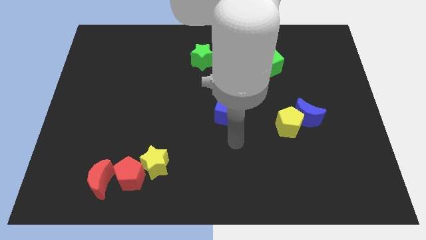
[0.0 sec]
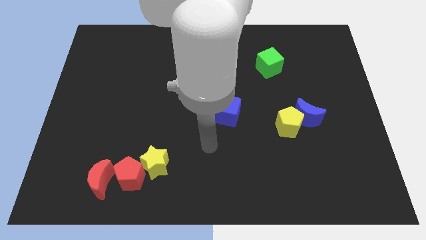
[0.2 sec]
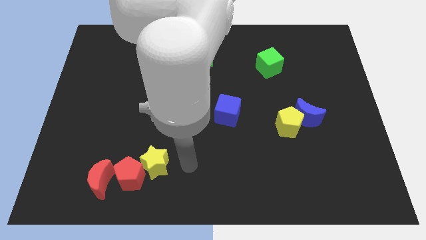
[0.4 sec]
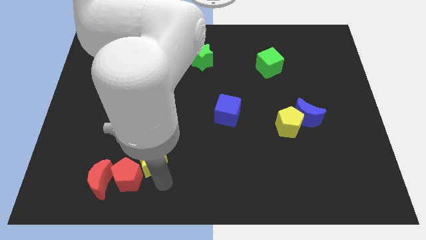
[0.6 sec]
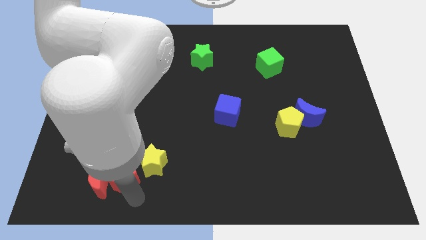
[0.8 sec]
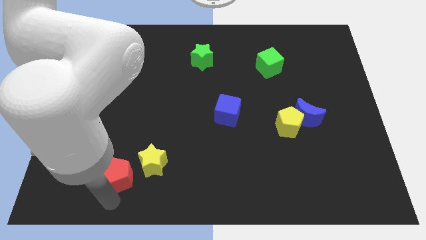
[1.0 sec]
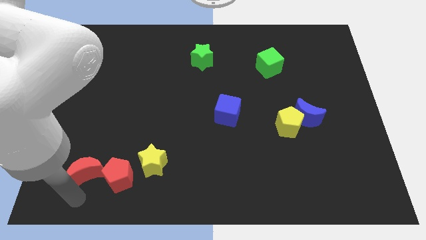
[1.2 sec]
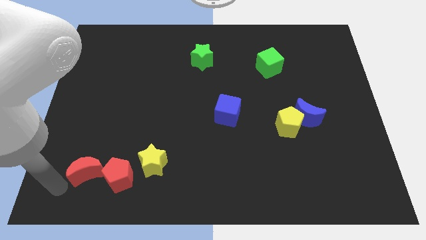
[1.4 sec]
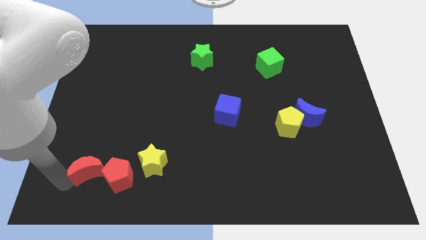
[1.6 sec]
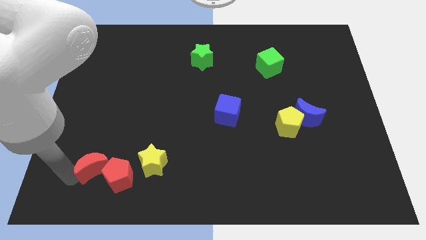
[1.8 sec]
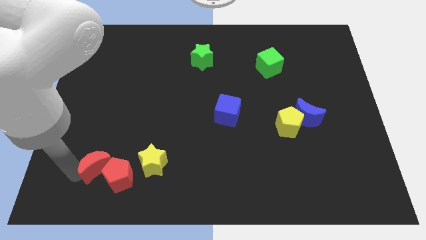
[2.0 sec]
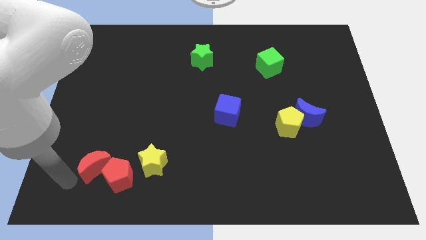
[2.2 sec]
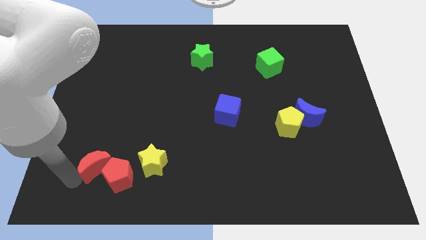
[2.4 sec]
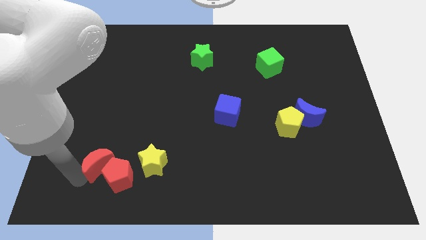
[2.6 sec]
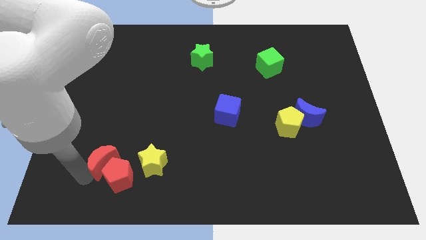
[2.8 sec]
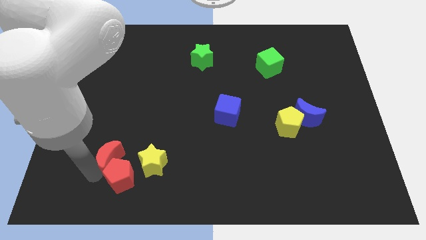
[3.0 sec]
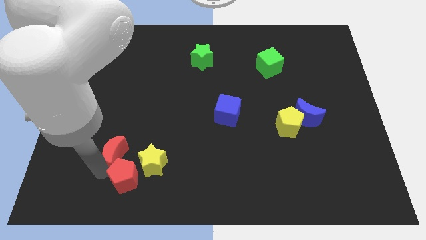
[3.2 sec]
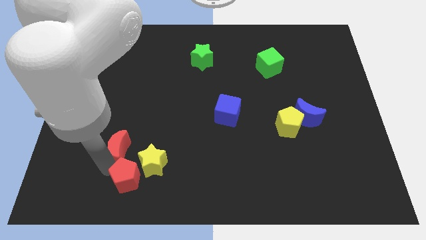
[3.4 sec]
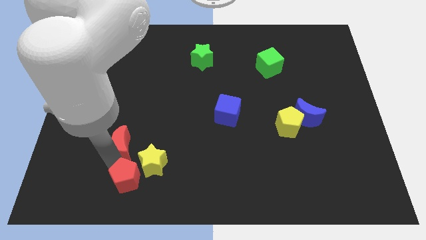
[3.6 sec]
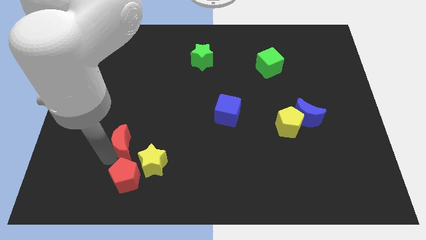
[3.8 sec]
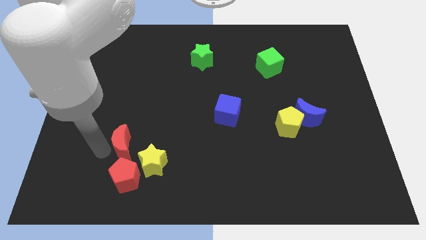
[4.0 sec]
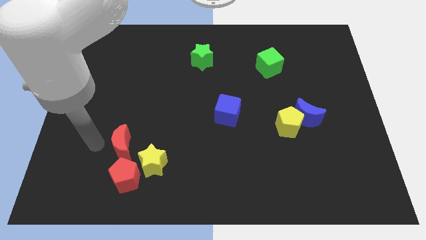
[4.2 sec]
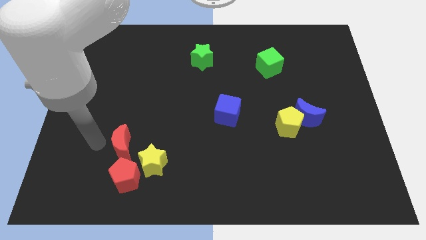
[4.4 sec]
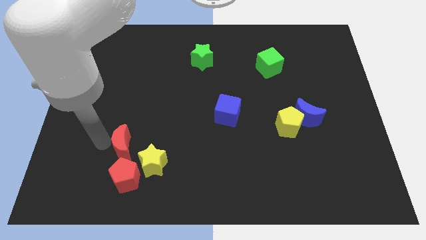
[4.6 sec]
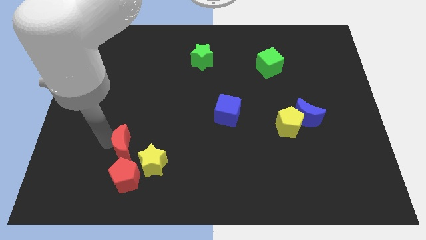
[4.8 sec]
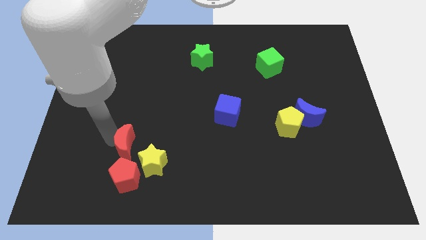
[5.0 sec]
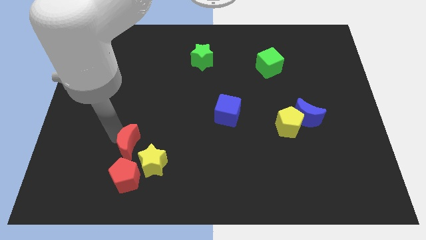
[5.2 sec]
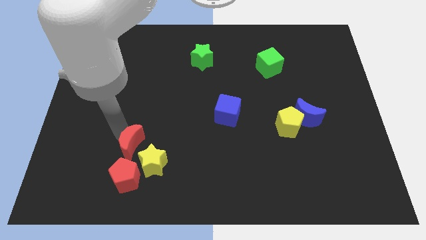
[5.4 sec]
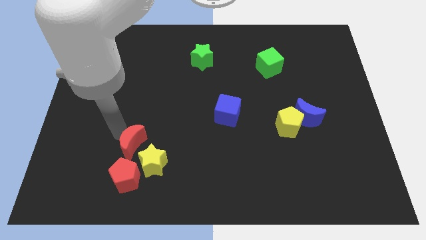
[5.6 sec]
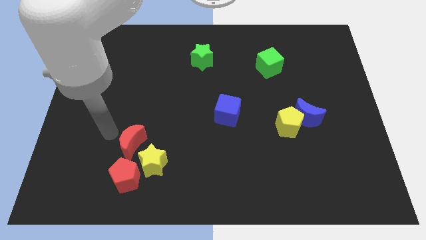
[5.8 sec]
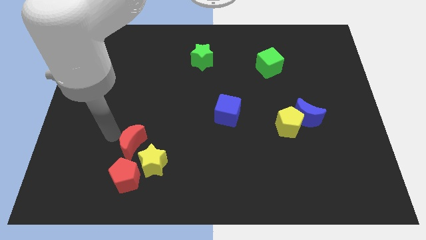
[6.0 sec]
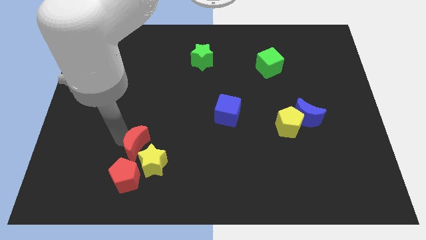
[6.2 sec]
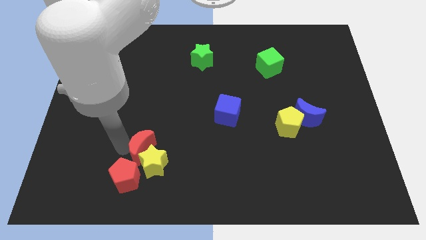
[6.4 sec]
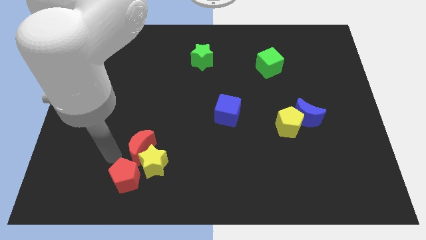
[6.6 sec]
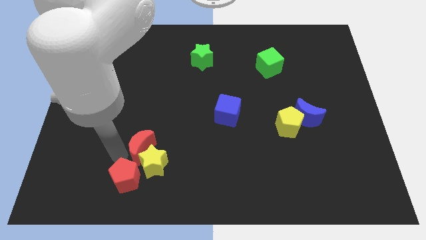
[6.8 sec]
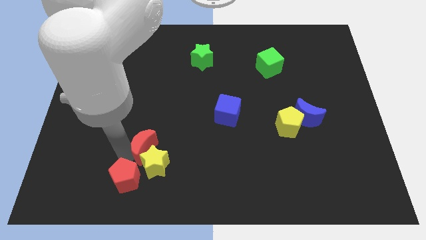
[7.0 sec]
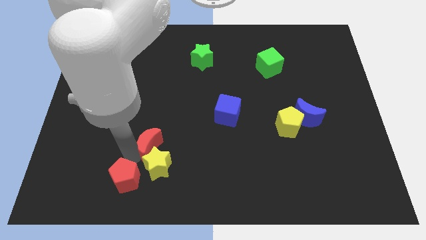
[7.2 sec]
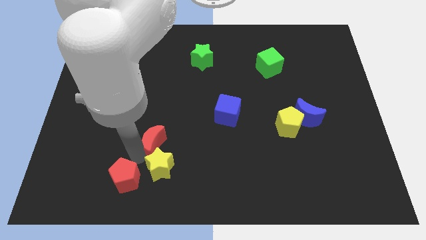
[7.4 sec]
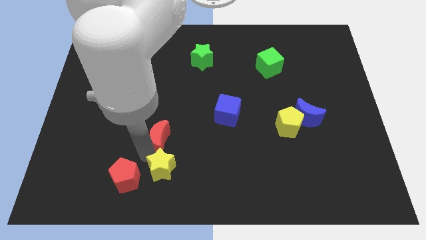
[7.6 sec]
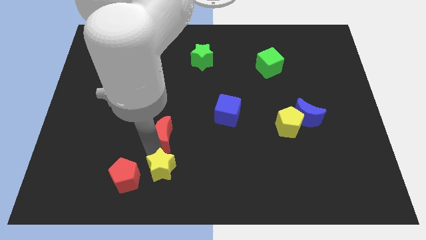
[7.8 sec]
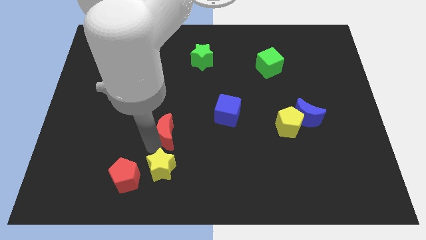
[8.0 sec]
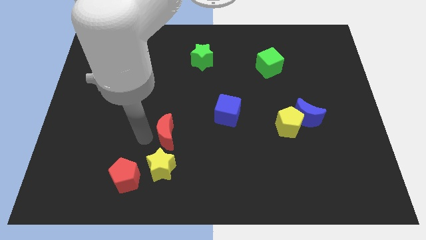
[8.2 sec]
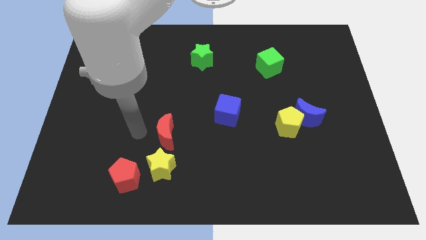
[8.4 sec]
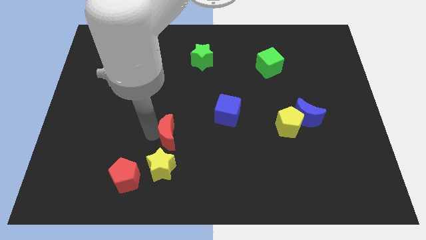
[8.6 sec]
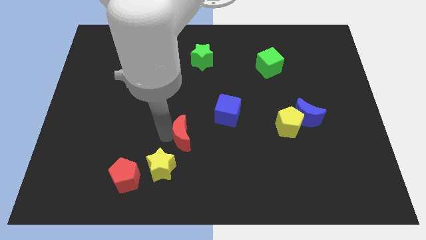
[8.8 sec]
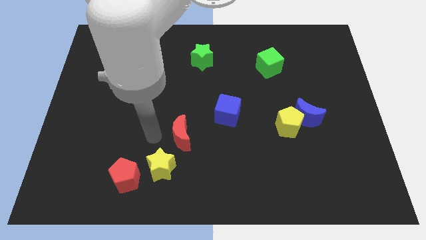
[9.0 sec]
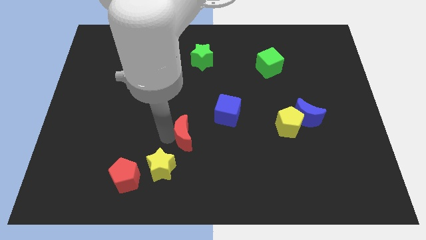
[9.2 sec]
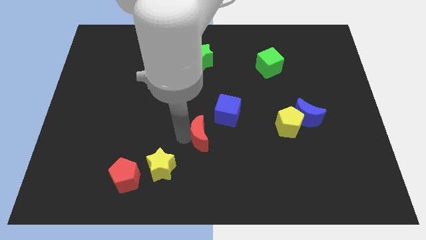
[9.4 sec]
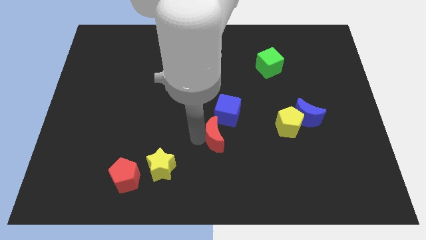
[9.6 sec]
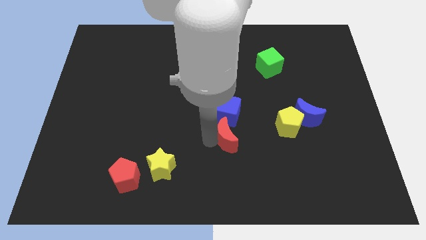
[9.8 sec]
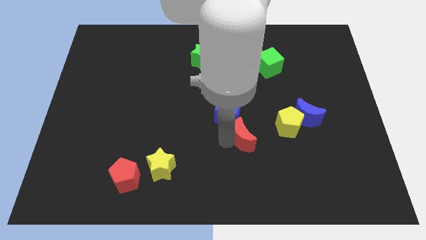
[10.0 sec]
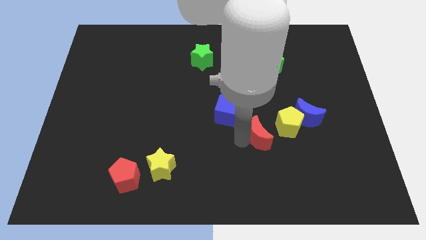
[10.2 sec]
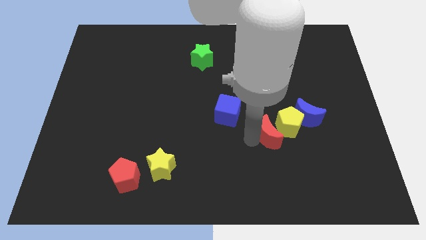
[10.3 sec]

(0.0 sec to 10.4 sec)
slide the red moon towards the yellow pentagon

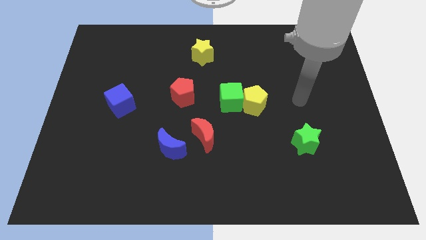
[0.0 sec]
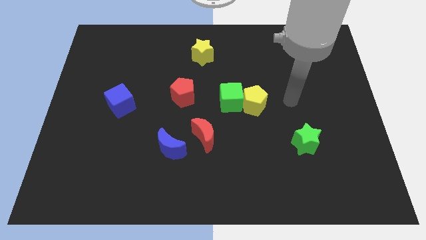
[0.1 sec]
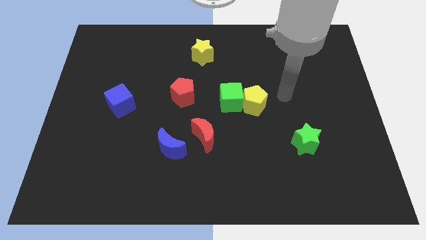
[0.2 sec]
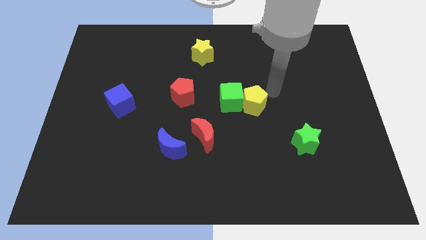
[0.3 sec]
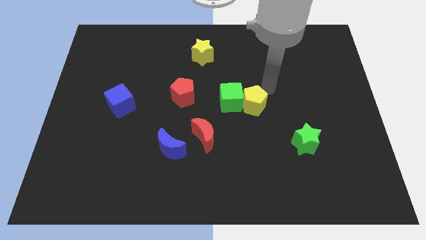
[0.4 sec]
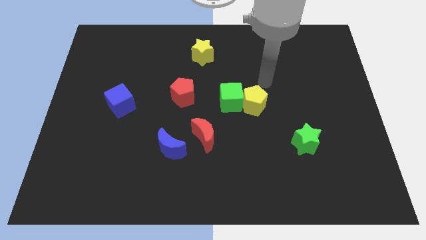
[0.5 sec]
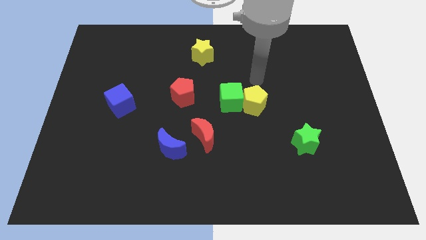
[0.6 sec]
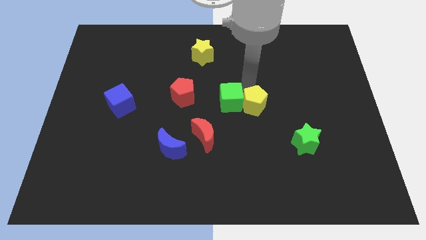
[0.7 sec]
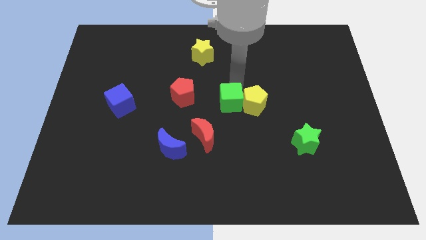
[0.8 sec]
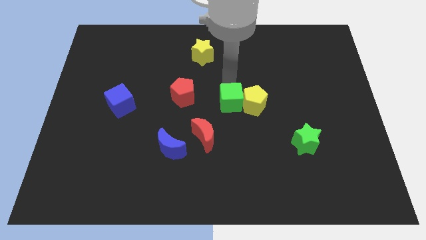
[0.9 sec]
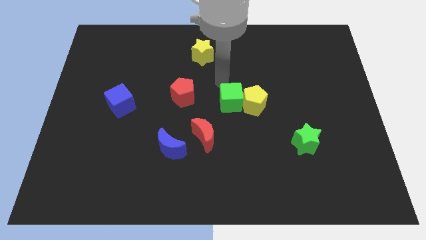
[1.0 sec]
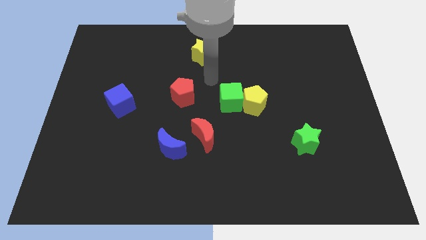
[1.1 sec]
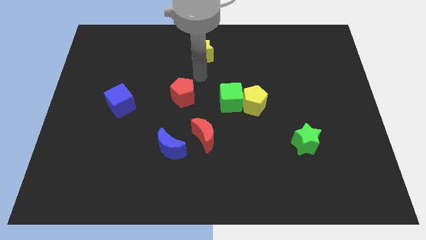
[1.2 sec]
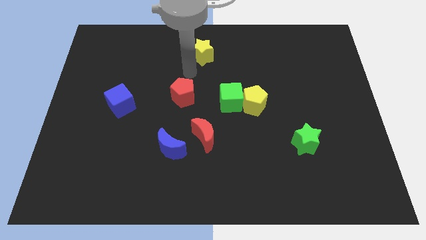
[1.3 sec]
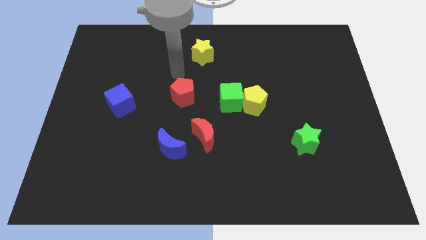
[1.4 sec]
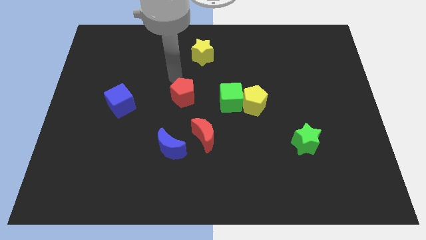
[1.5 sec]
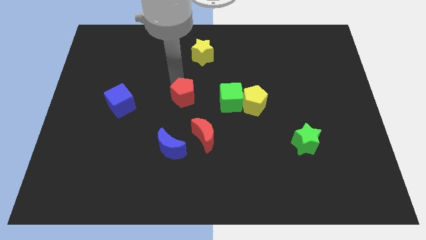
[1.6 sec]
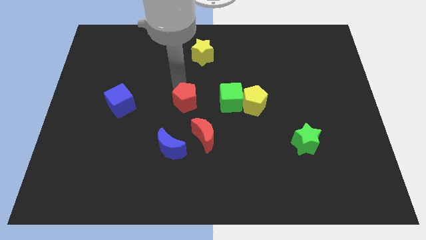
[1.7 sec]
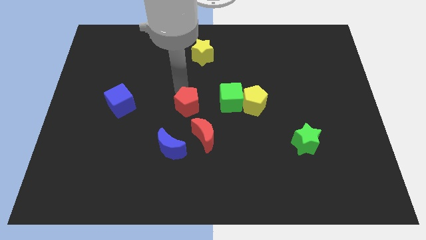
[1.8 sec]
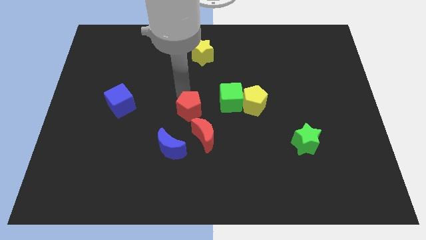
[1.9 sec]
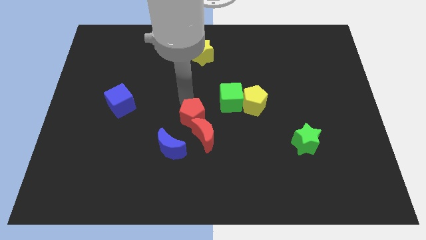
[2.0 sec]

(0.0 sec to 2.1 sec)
put the red pentagon towards the red moon
